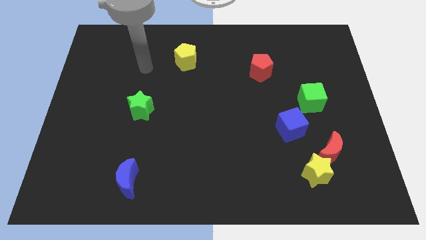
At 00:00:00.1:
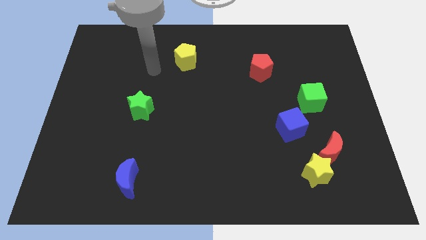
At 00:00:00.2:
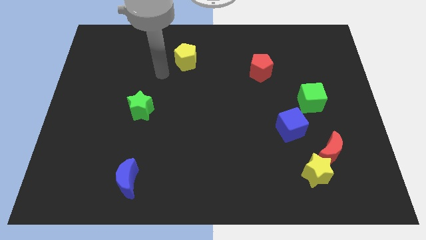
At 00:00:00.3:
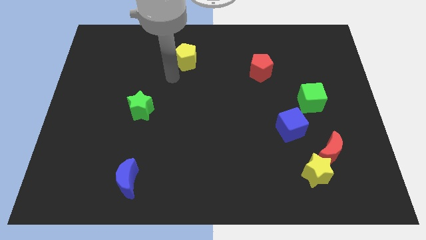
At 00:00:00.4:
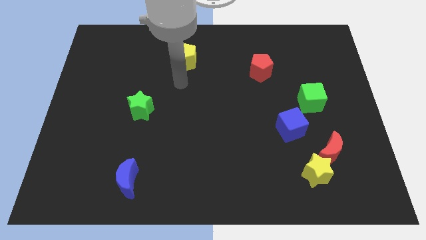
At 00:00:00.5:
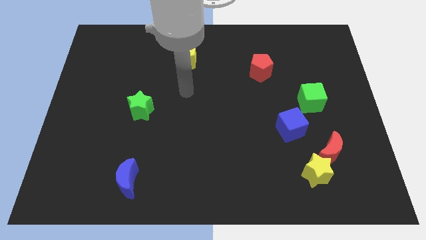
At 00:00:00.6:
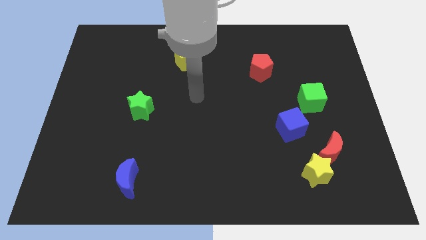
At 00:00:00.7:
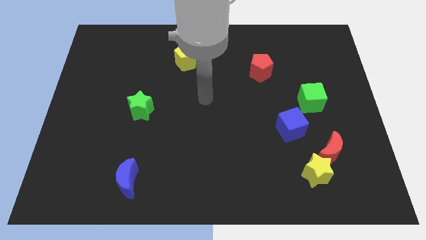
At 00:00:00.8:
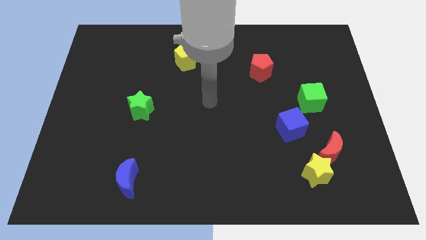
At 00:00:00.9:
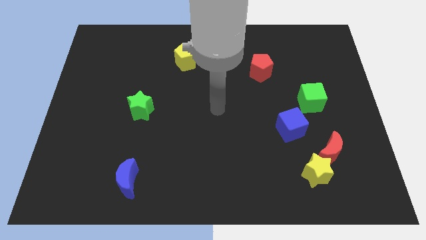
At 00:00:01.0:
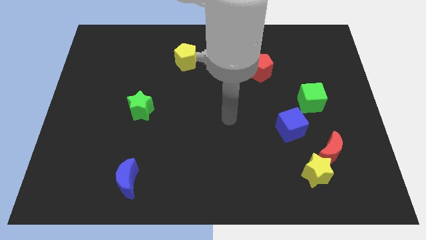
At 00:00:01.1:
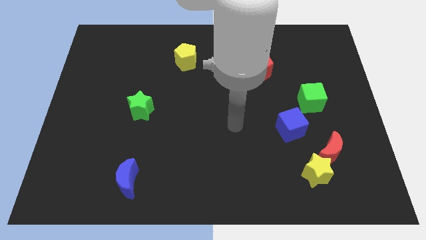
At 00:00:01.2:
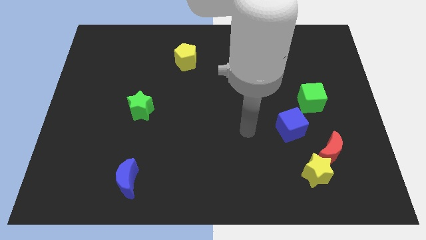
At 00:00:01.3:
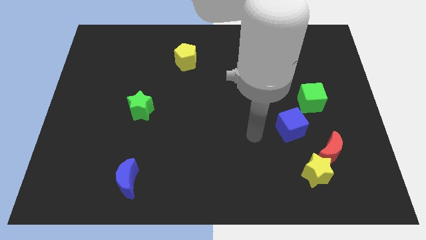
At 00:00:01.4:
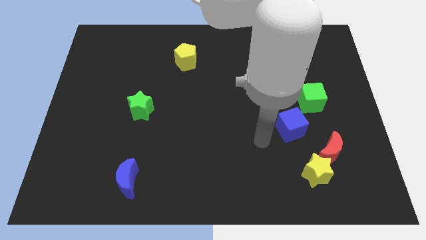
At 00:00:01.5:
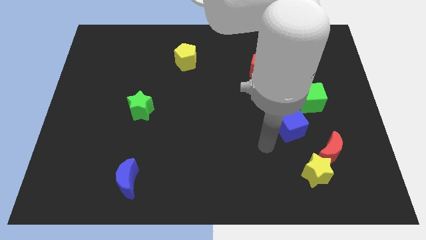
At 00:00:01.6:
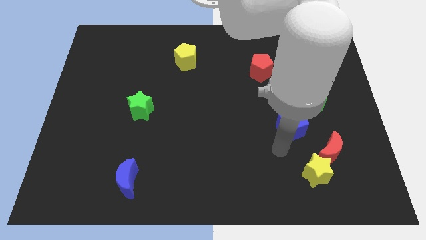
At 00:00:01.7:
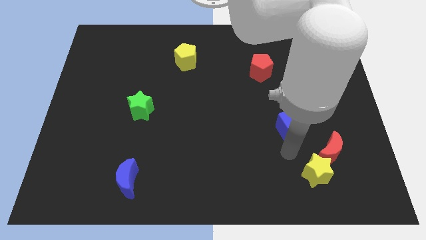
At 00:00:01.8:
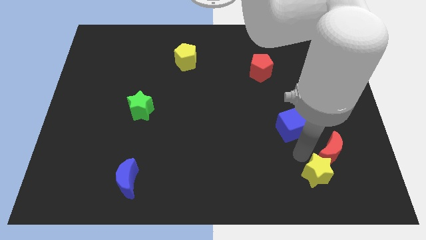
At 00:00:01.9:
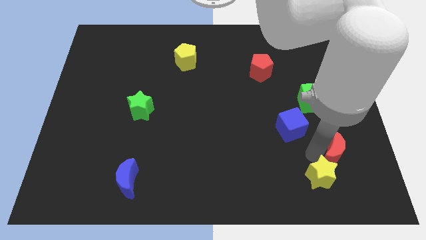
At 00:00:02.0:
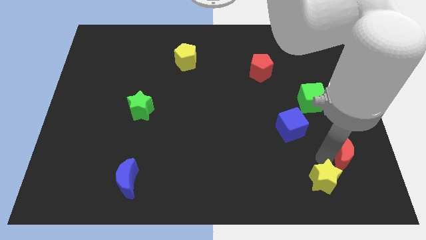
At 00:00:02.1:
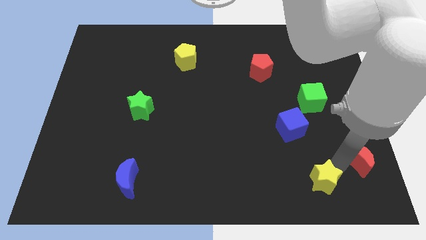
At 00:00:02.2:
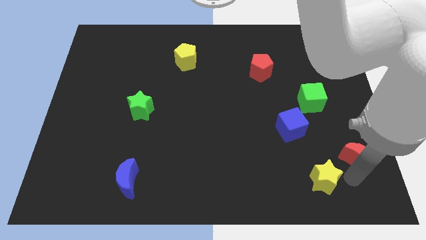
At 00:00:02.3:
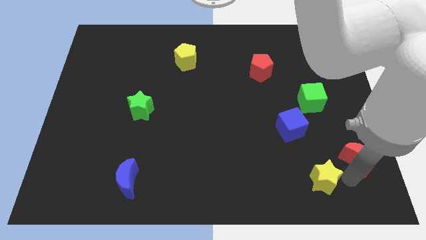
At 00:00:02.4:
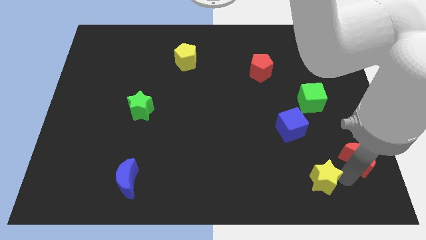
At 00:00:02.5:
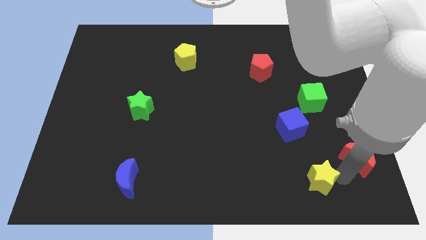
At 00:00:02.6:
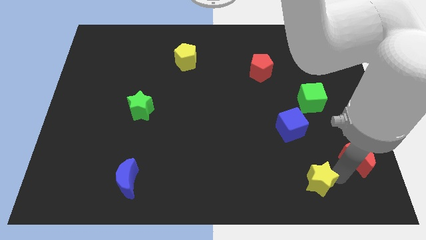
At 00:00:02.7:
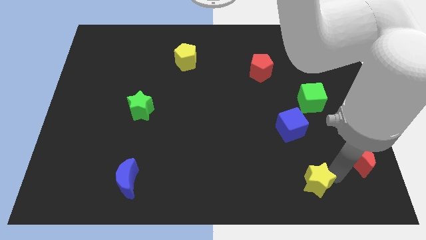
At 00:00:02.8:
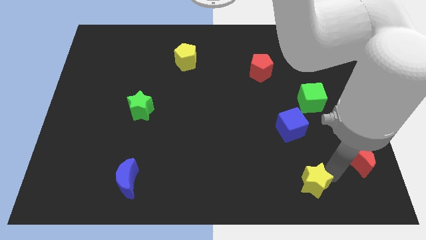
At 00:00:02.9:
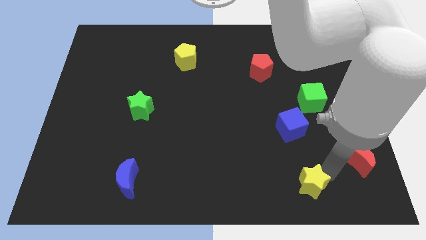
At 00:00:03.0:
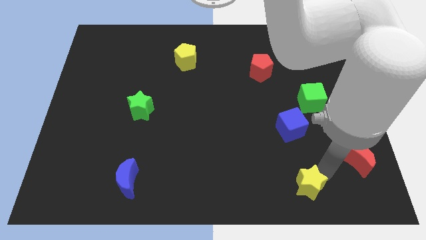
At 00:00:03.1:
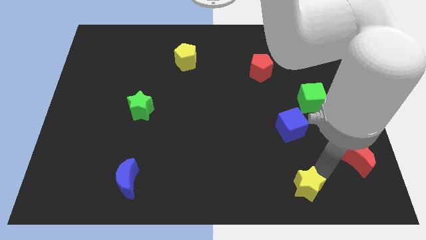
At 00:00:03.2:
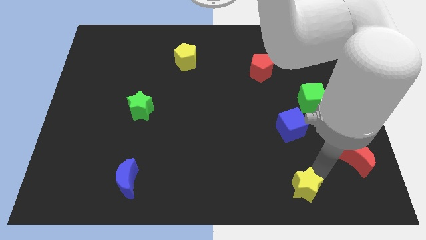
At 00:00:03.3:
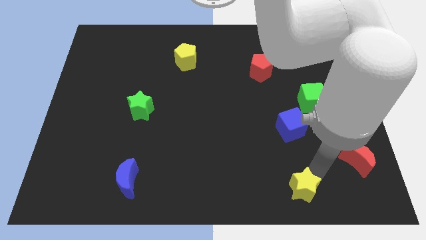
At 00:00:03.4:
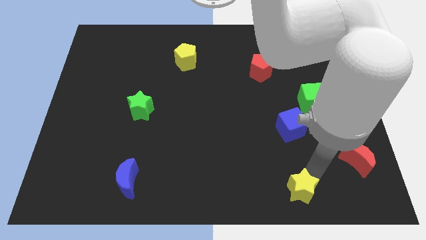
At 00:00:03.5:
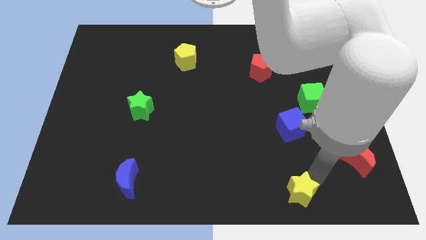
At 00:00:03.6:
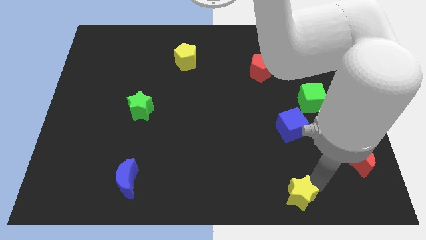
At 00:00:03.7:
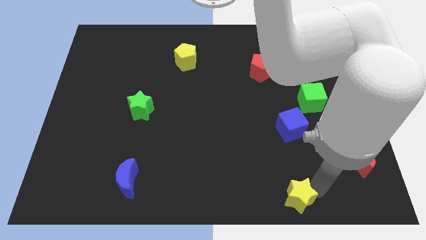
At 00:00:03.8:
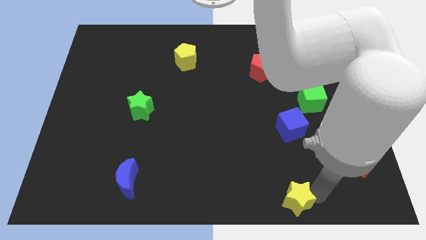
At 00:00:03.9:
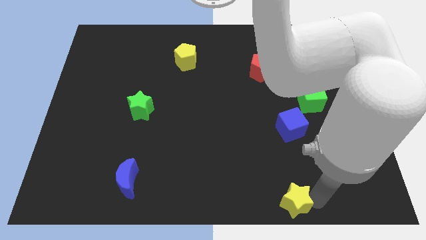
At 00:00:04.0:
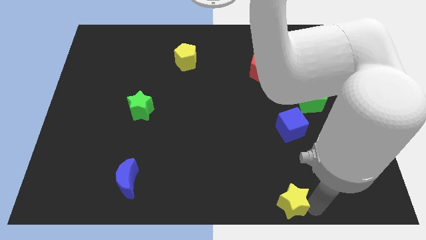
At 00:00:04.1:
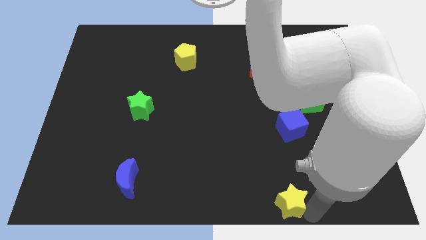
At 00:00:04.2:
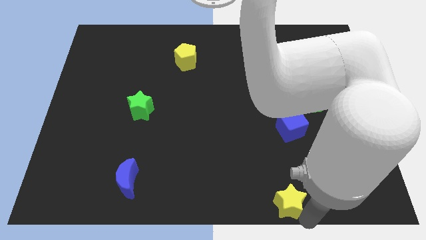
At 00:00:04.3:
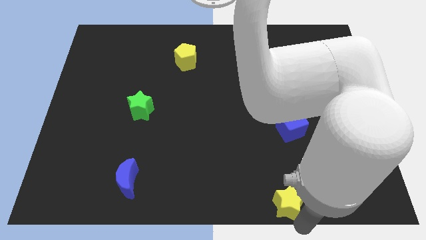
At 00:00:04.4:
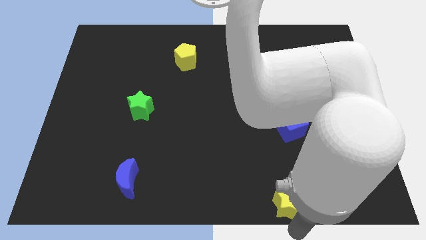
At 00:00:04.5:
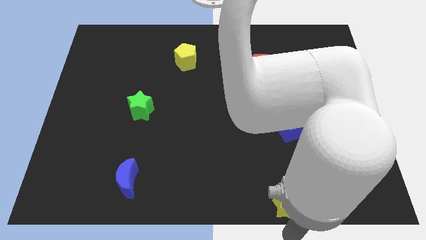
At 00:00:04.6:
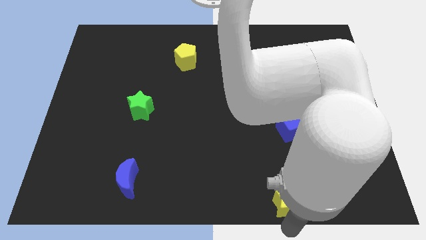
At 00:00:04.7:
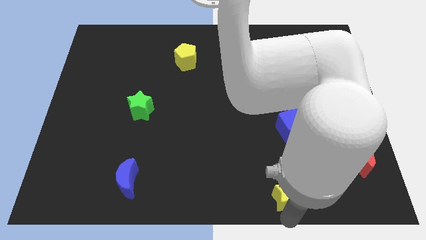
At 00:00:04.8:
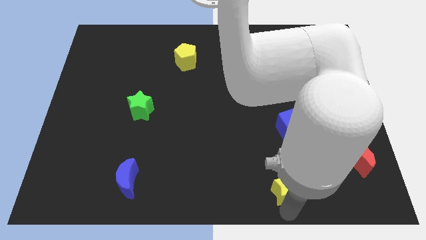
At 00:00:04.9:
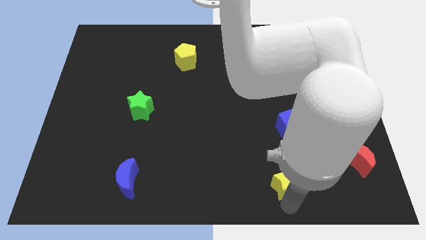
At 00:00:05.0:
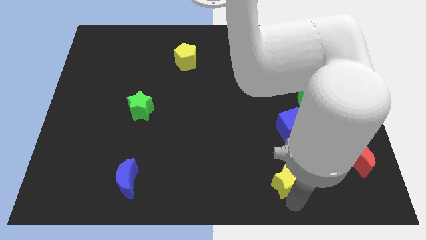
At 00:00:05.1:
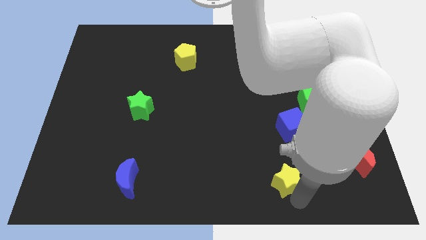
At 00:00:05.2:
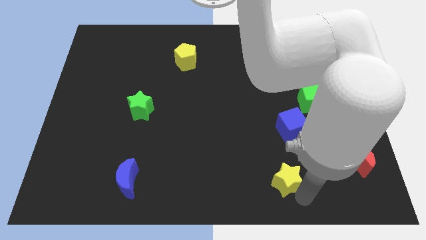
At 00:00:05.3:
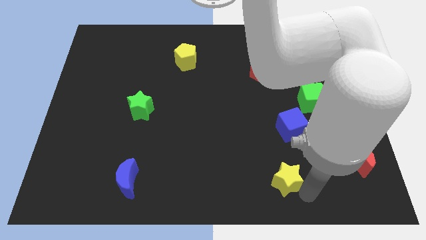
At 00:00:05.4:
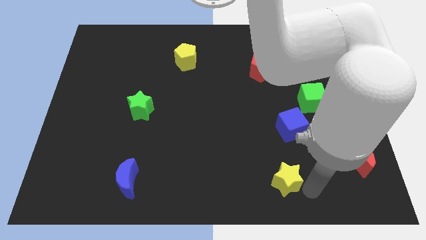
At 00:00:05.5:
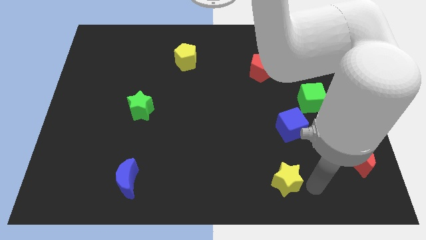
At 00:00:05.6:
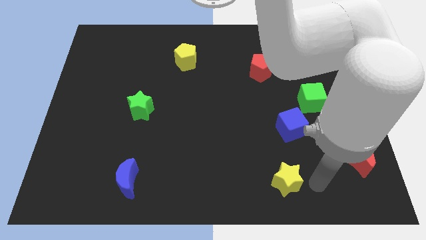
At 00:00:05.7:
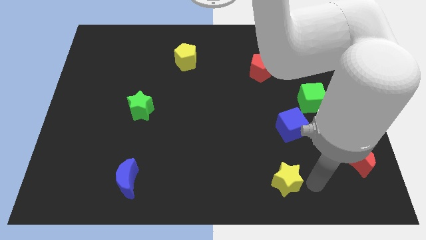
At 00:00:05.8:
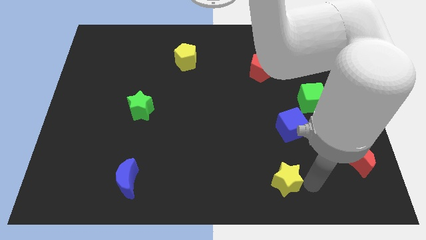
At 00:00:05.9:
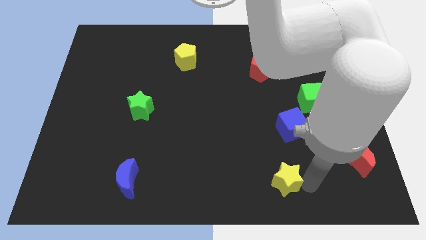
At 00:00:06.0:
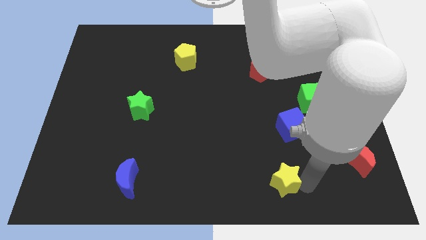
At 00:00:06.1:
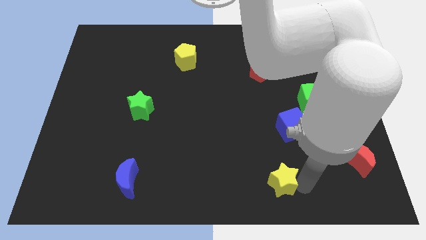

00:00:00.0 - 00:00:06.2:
slide the yellow star somewhat left

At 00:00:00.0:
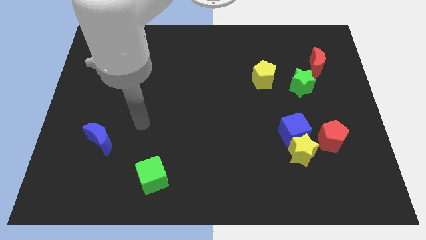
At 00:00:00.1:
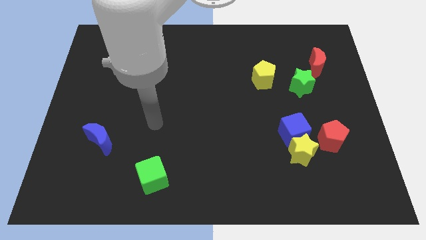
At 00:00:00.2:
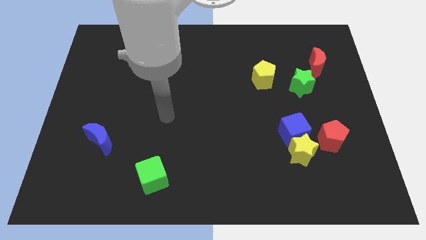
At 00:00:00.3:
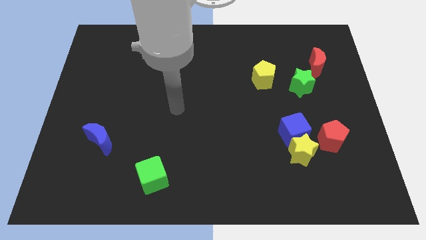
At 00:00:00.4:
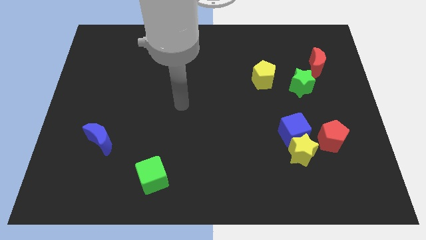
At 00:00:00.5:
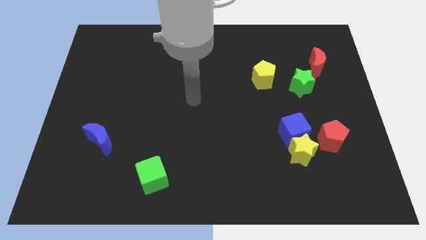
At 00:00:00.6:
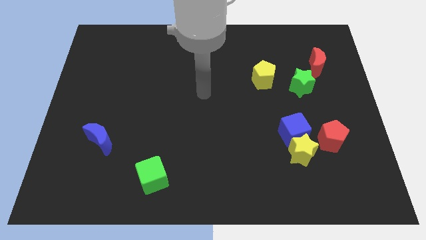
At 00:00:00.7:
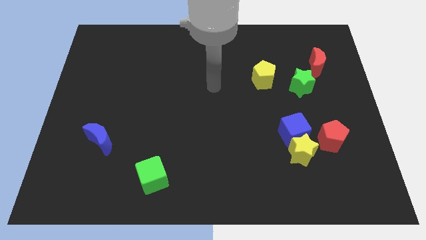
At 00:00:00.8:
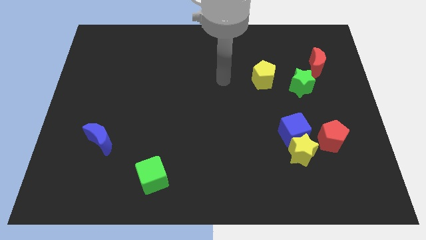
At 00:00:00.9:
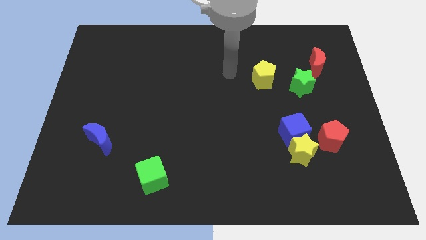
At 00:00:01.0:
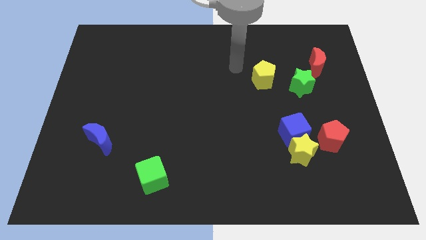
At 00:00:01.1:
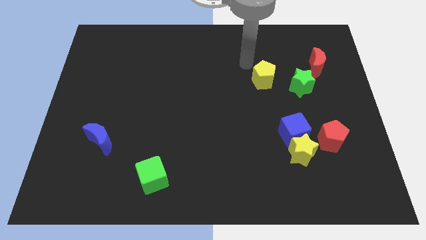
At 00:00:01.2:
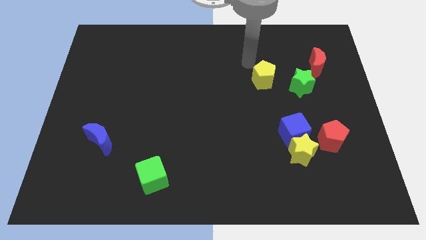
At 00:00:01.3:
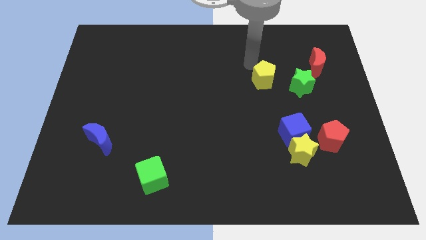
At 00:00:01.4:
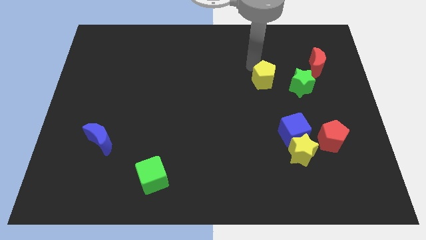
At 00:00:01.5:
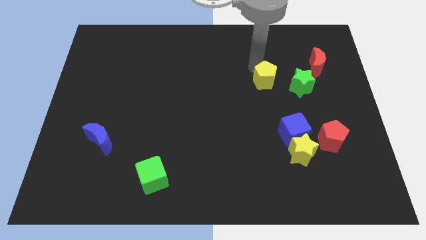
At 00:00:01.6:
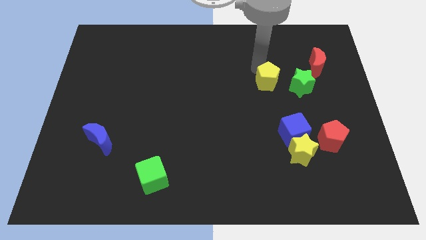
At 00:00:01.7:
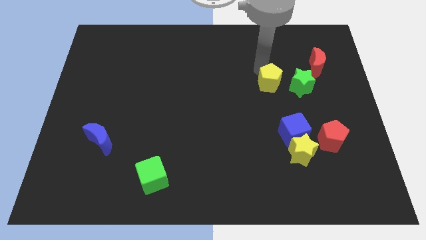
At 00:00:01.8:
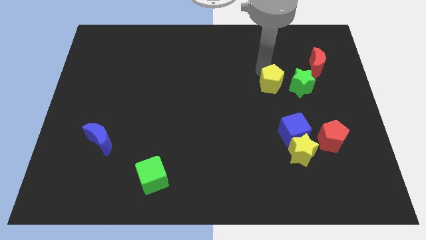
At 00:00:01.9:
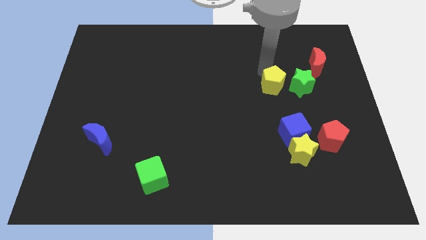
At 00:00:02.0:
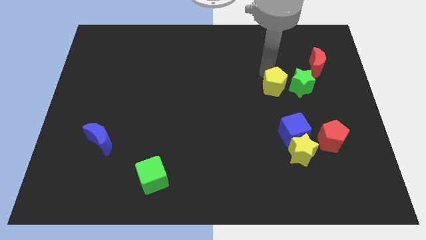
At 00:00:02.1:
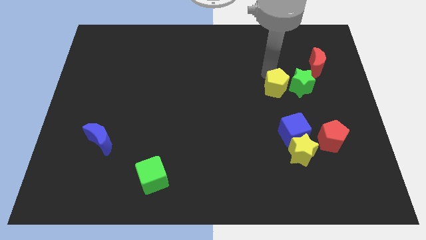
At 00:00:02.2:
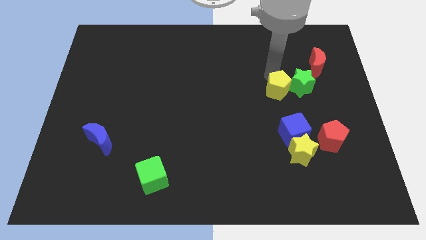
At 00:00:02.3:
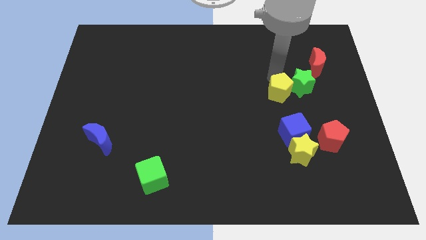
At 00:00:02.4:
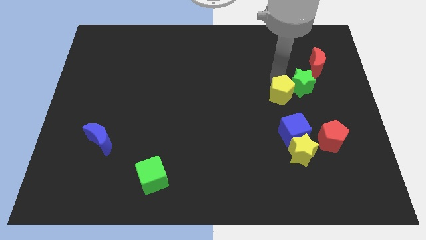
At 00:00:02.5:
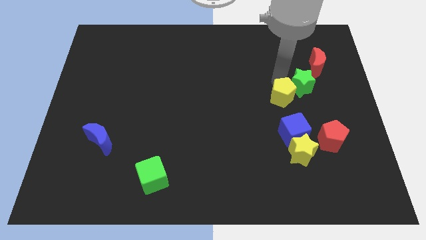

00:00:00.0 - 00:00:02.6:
push the yellow pentagon a little bit downwards and right
